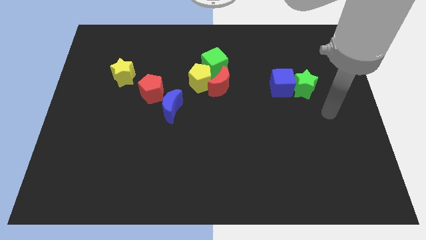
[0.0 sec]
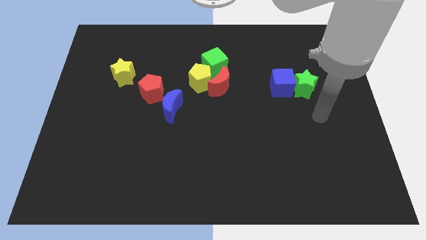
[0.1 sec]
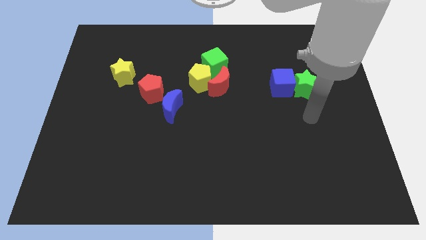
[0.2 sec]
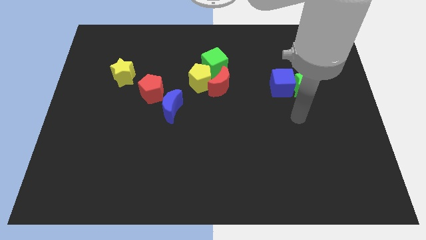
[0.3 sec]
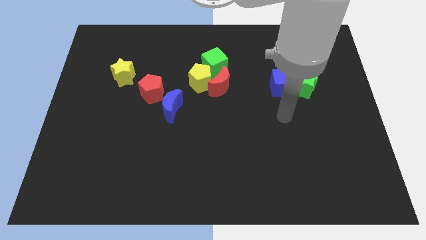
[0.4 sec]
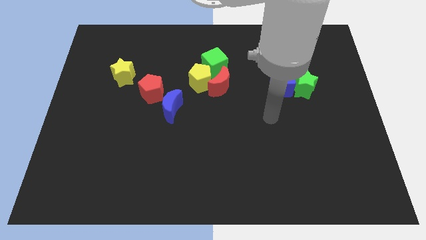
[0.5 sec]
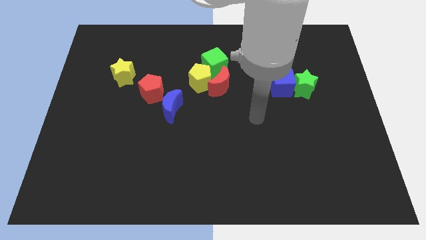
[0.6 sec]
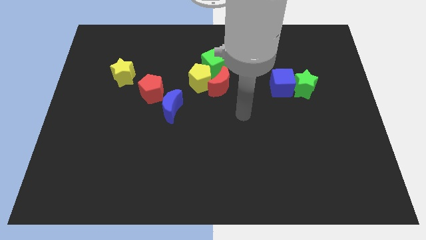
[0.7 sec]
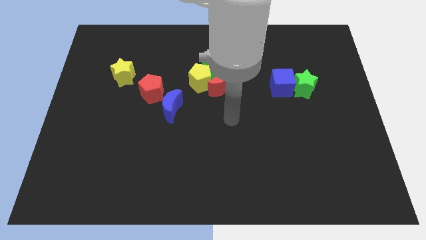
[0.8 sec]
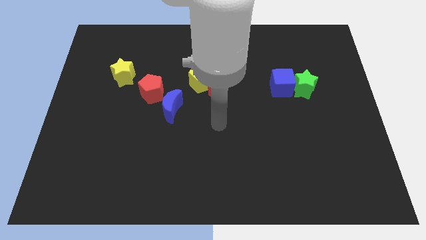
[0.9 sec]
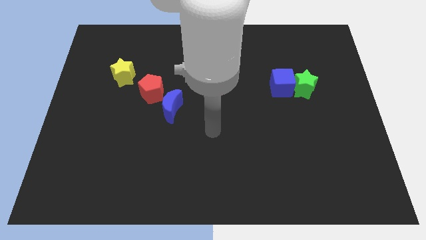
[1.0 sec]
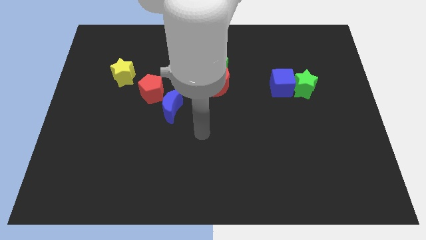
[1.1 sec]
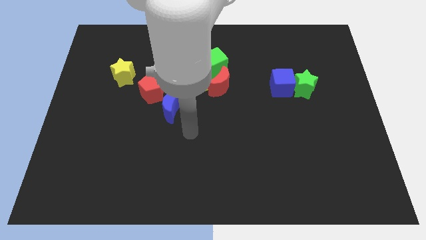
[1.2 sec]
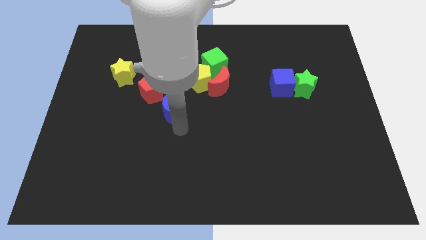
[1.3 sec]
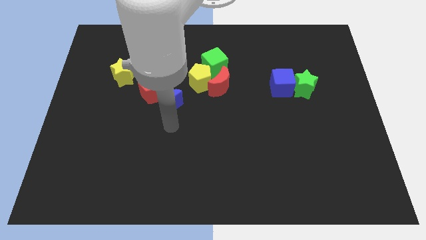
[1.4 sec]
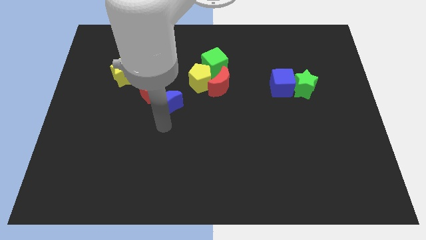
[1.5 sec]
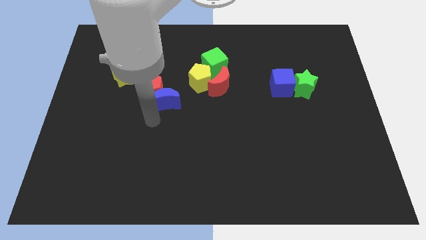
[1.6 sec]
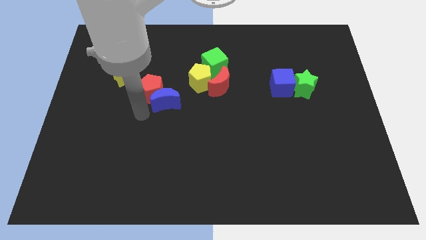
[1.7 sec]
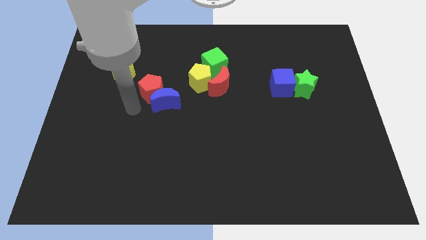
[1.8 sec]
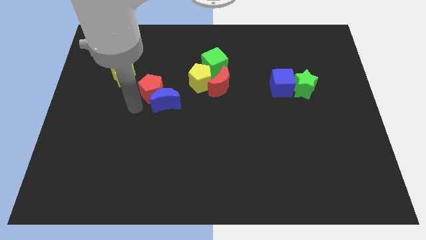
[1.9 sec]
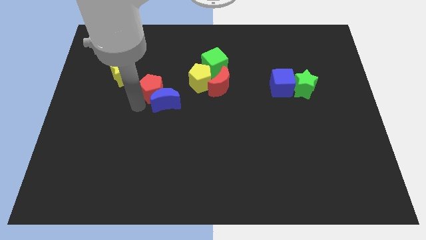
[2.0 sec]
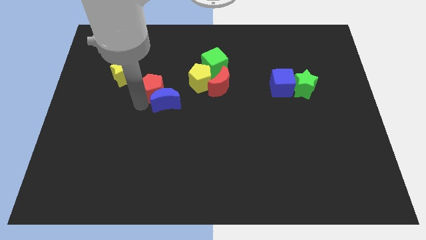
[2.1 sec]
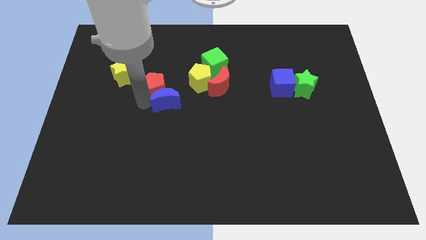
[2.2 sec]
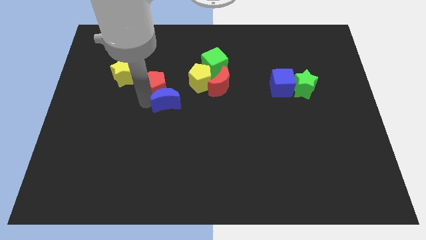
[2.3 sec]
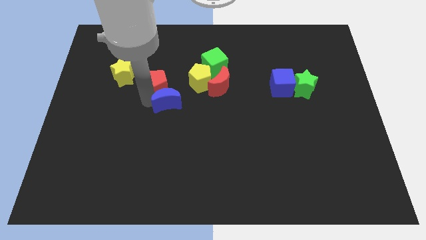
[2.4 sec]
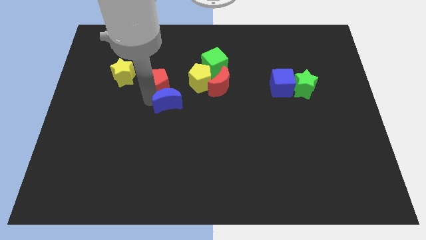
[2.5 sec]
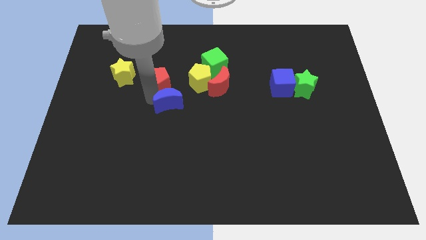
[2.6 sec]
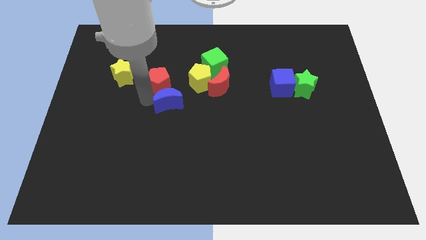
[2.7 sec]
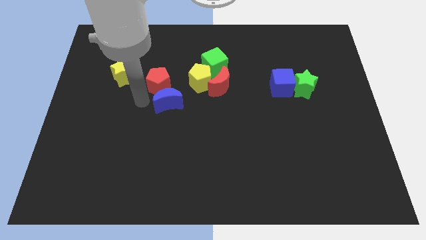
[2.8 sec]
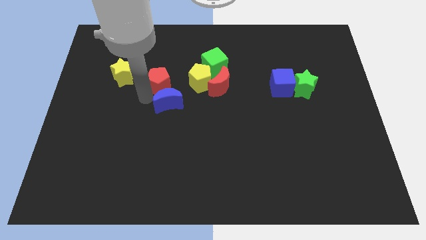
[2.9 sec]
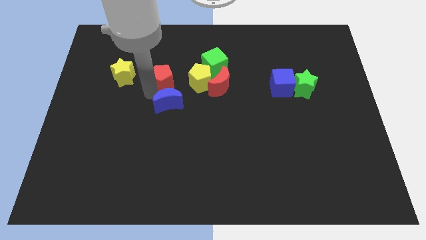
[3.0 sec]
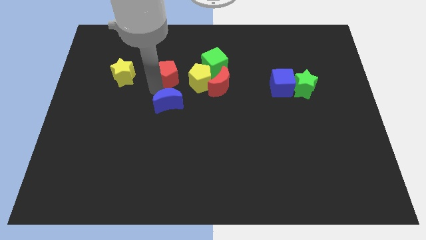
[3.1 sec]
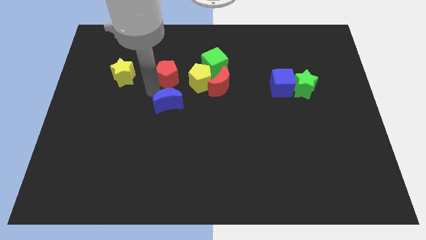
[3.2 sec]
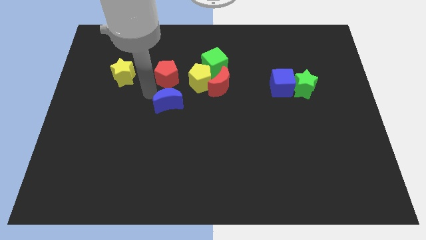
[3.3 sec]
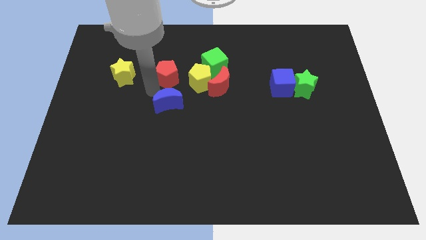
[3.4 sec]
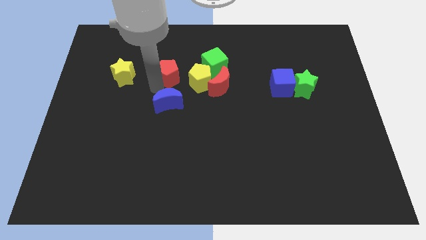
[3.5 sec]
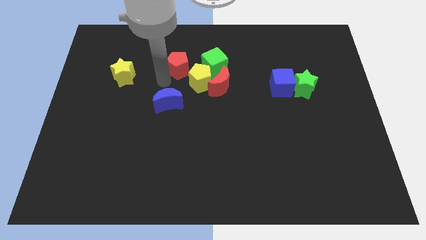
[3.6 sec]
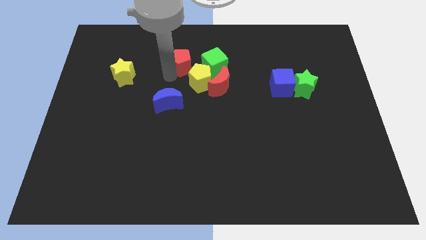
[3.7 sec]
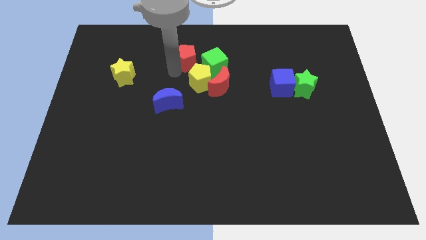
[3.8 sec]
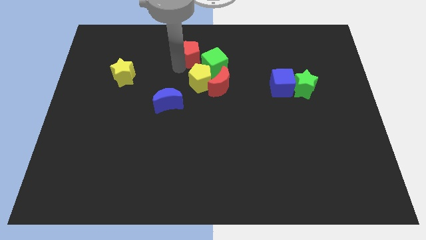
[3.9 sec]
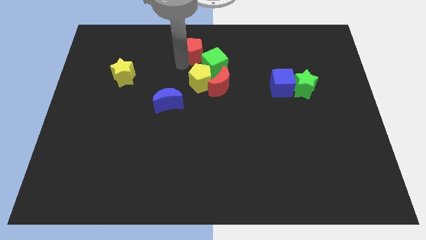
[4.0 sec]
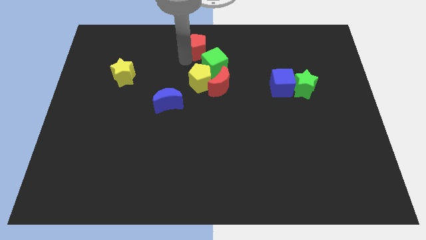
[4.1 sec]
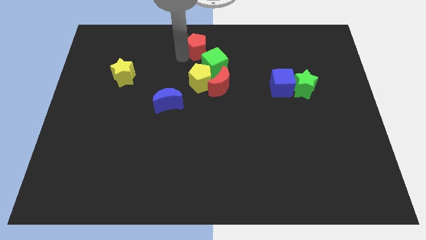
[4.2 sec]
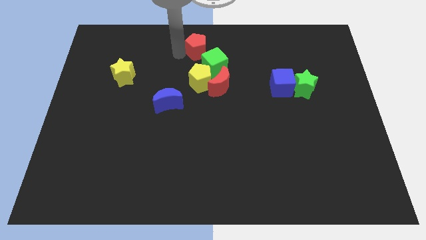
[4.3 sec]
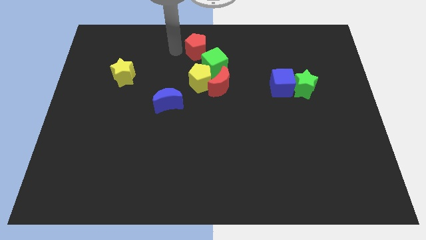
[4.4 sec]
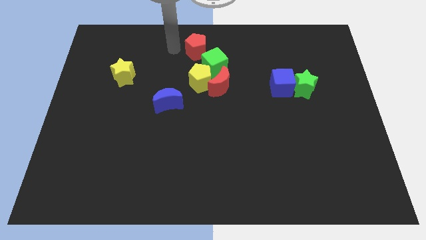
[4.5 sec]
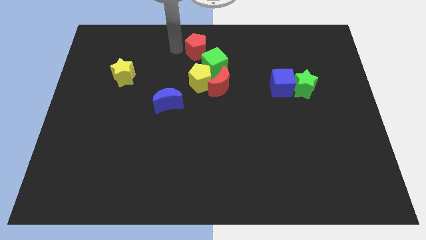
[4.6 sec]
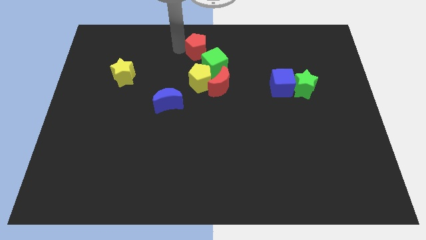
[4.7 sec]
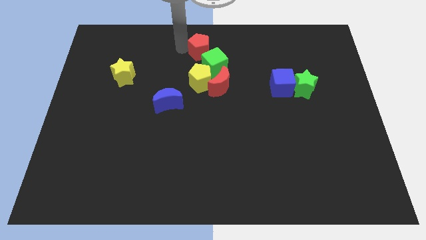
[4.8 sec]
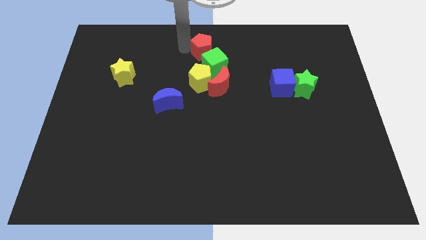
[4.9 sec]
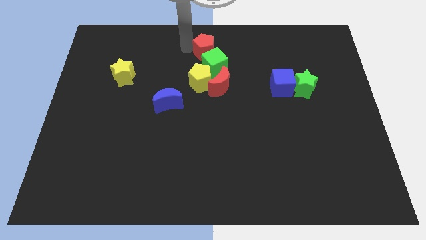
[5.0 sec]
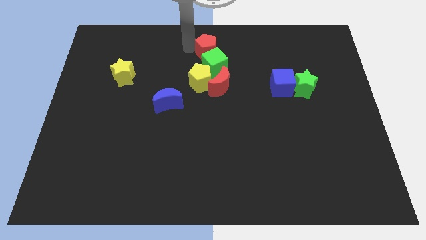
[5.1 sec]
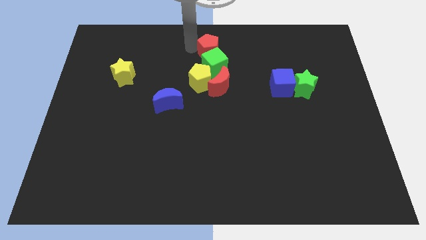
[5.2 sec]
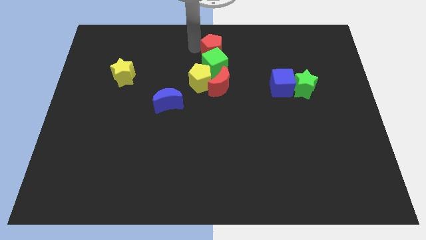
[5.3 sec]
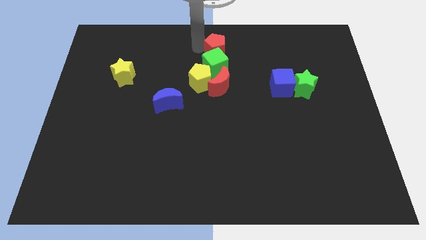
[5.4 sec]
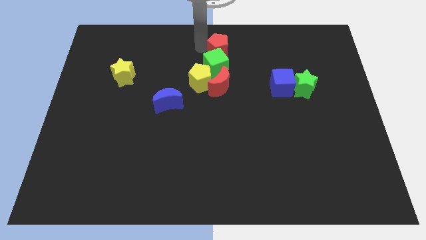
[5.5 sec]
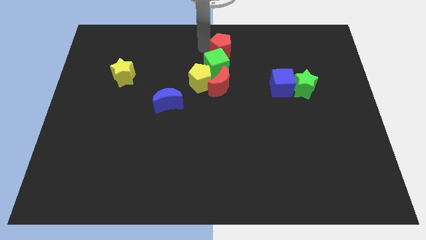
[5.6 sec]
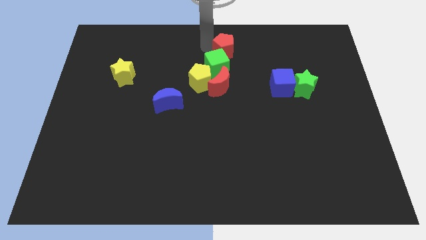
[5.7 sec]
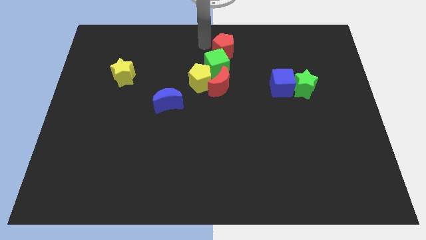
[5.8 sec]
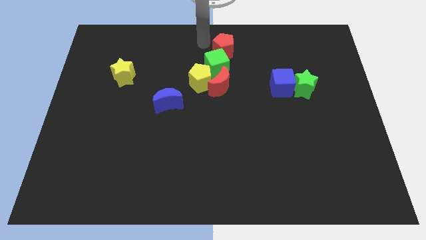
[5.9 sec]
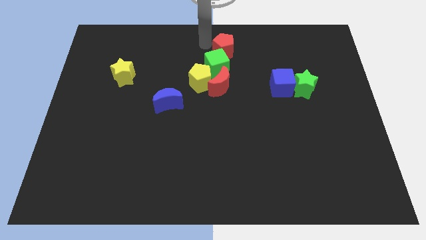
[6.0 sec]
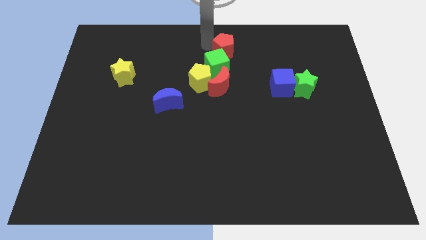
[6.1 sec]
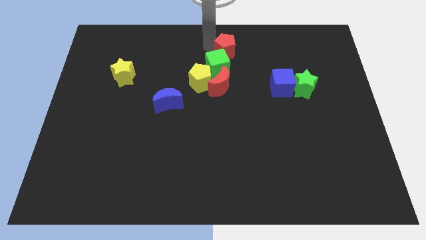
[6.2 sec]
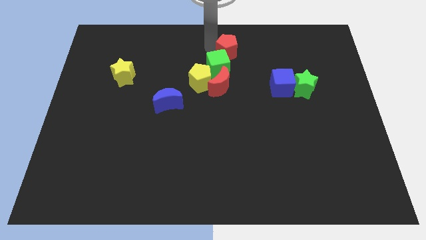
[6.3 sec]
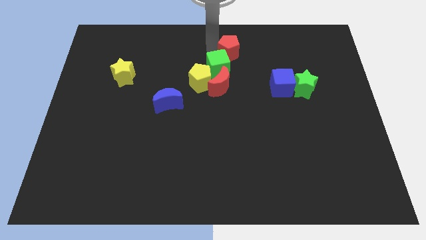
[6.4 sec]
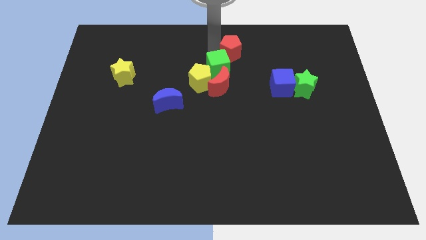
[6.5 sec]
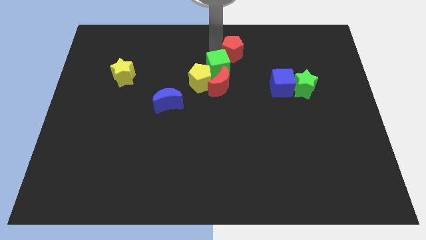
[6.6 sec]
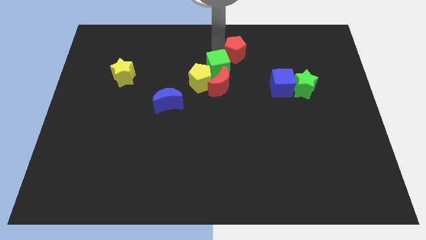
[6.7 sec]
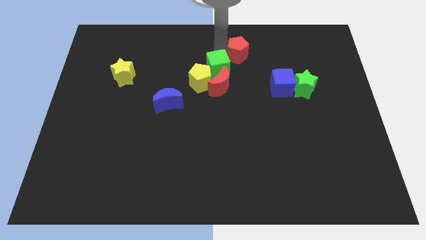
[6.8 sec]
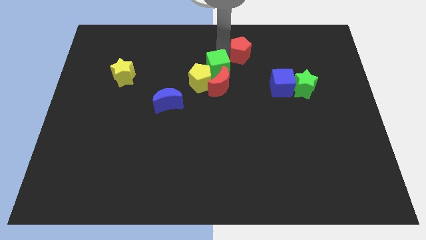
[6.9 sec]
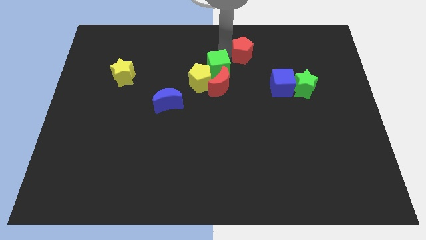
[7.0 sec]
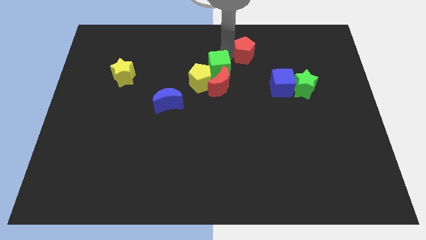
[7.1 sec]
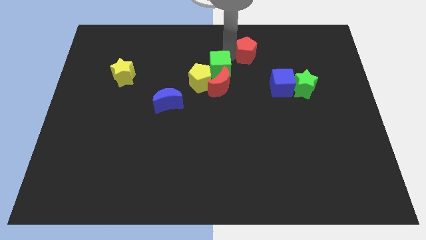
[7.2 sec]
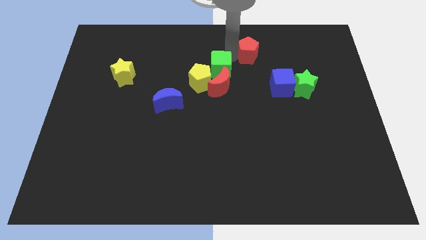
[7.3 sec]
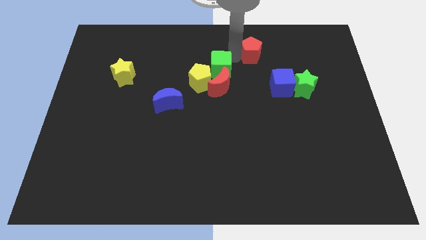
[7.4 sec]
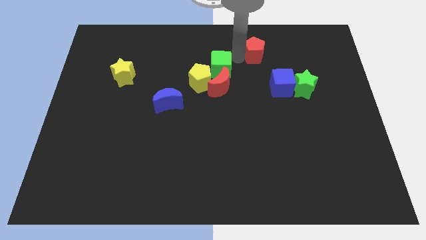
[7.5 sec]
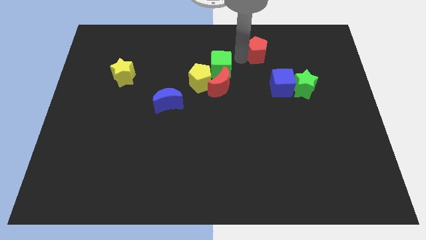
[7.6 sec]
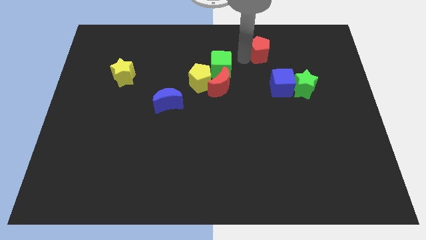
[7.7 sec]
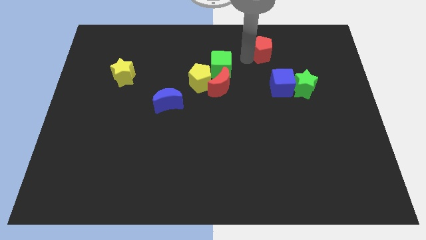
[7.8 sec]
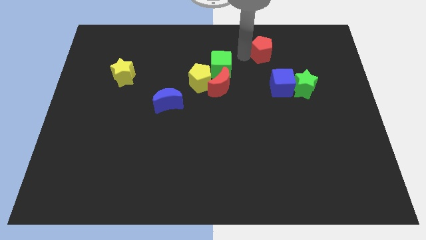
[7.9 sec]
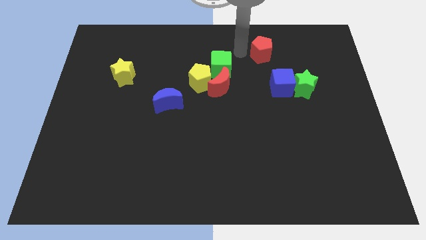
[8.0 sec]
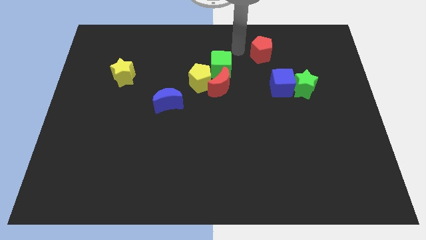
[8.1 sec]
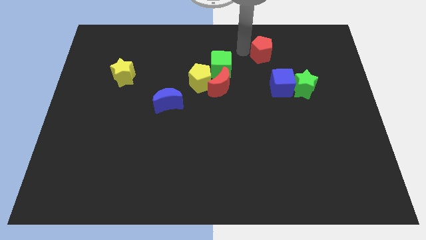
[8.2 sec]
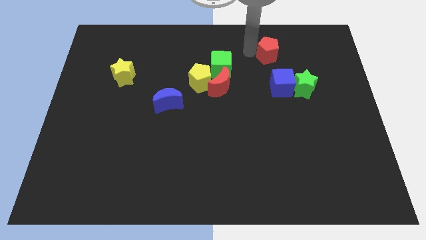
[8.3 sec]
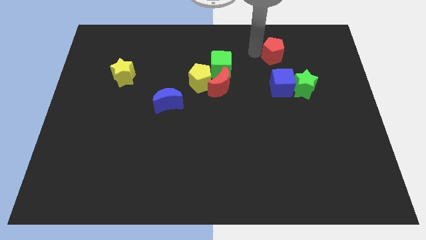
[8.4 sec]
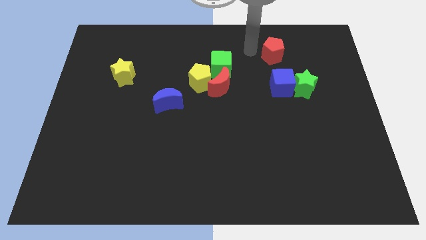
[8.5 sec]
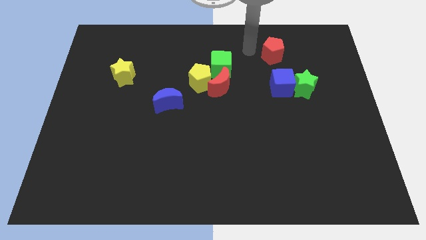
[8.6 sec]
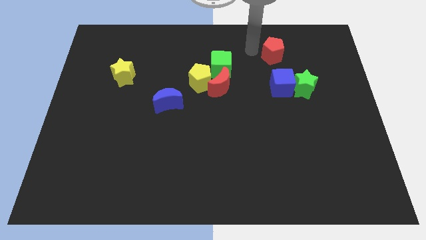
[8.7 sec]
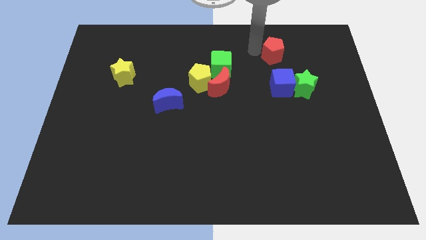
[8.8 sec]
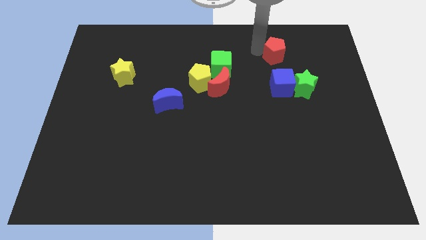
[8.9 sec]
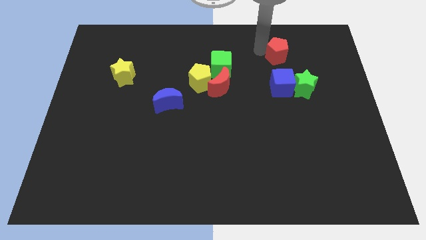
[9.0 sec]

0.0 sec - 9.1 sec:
move the red pentagon above the green star
